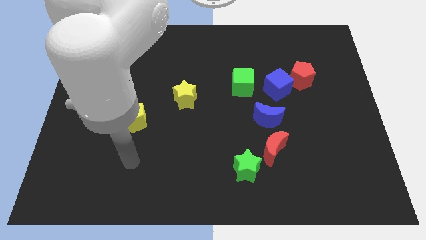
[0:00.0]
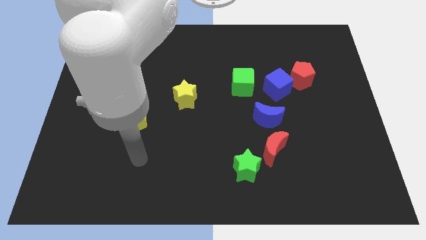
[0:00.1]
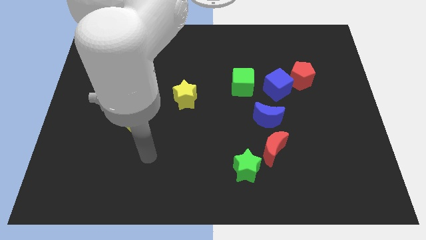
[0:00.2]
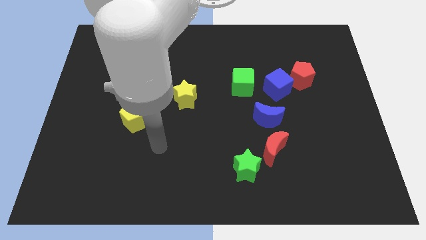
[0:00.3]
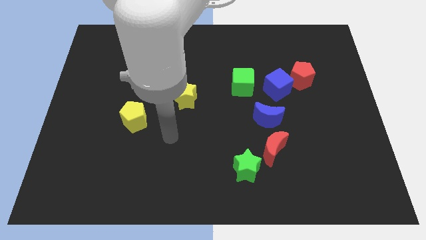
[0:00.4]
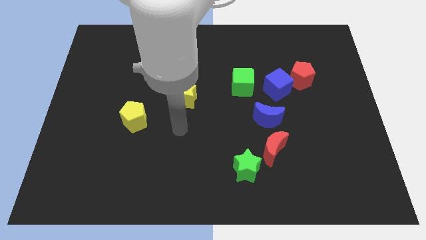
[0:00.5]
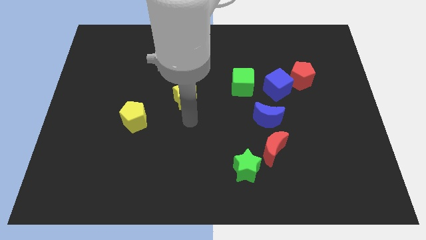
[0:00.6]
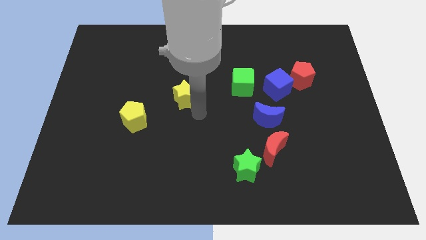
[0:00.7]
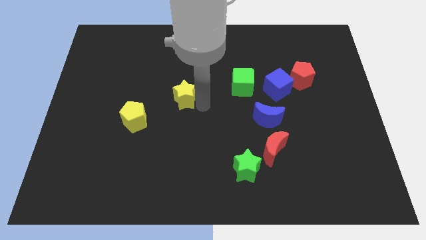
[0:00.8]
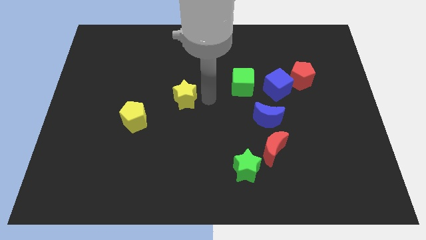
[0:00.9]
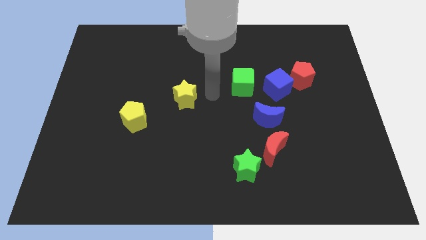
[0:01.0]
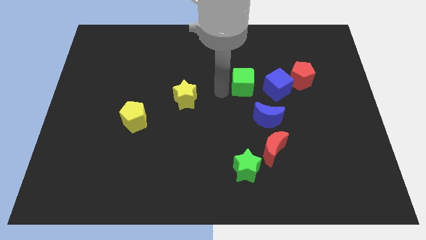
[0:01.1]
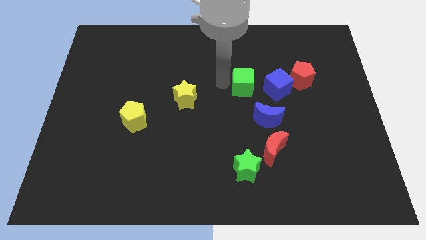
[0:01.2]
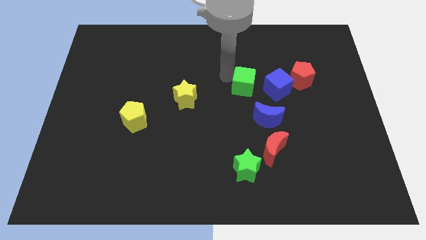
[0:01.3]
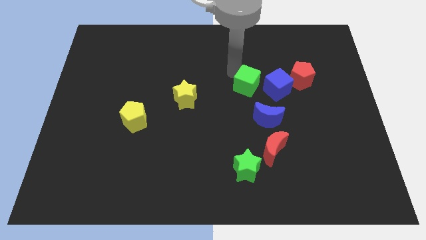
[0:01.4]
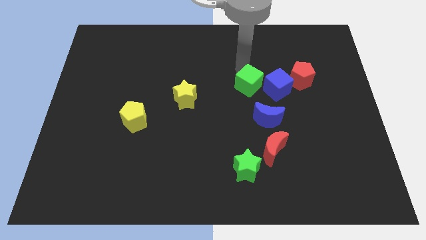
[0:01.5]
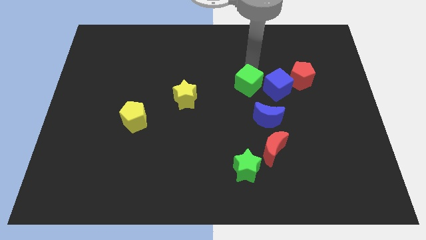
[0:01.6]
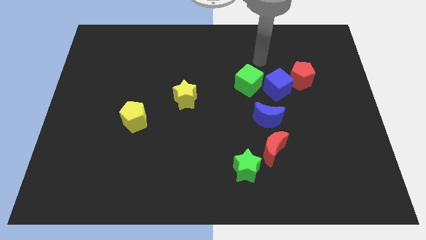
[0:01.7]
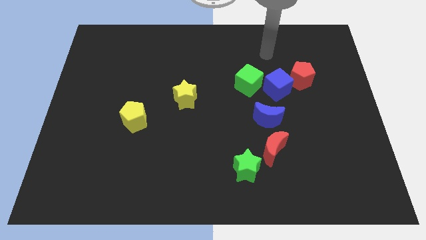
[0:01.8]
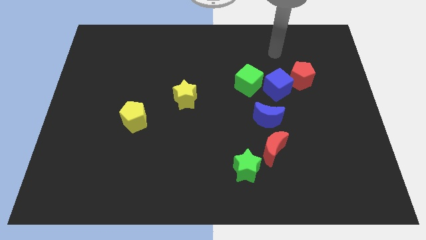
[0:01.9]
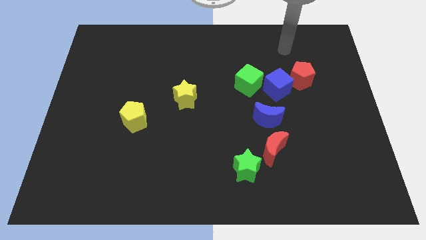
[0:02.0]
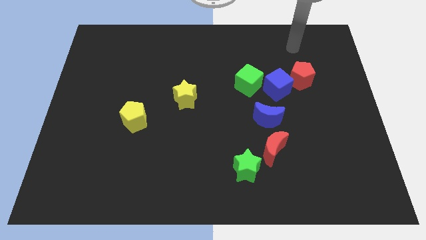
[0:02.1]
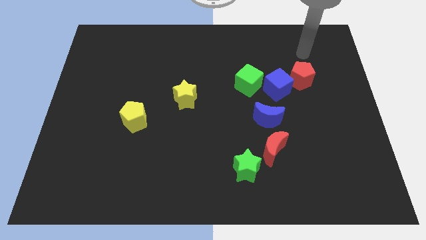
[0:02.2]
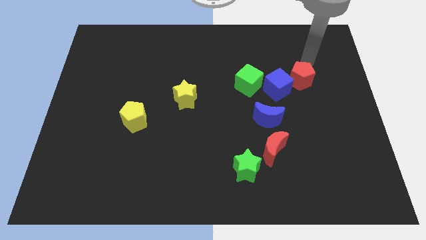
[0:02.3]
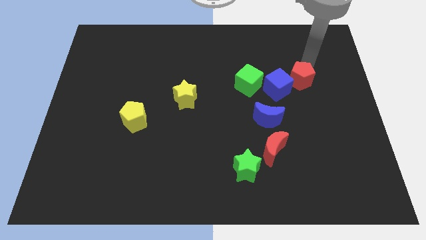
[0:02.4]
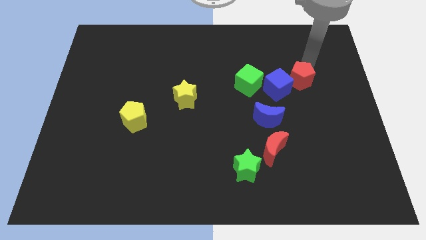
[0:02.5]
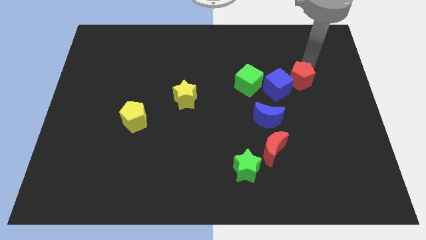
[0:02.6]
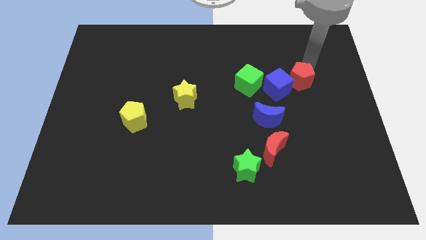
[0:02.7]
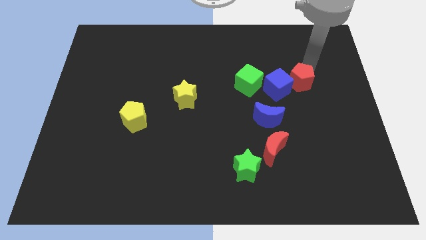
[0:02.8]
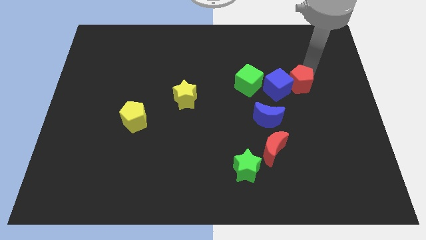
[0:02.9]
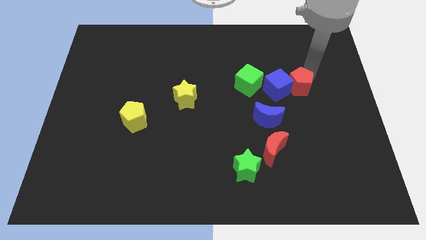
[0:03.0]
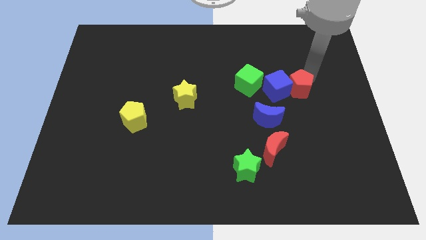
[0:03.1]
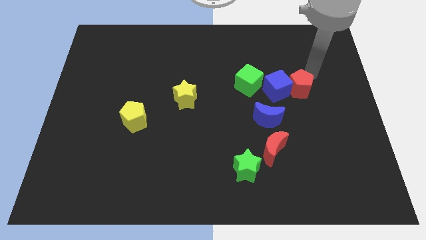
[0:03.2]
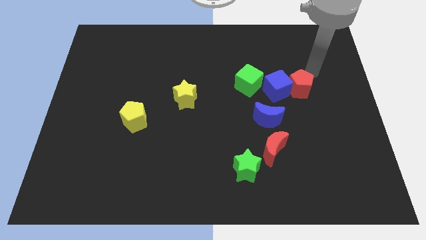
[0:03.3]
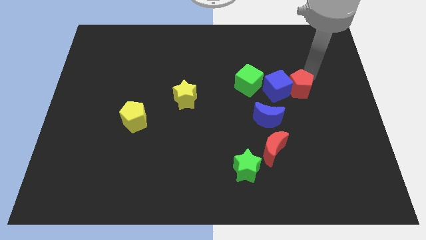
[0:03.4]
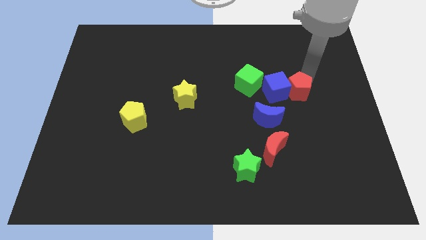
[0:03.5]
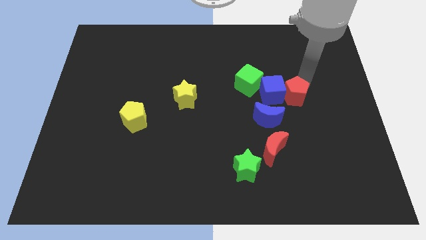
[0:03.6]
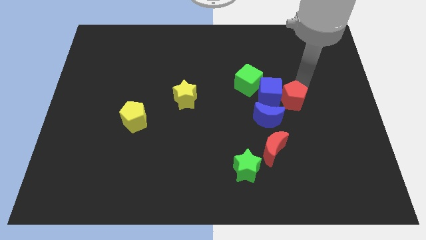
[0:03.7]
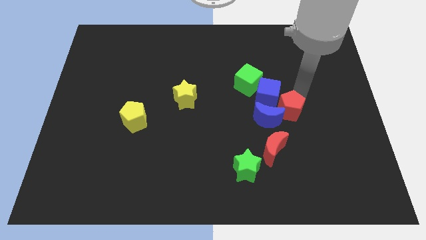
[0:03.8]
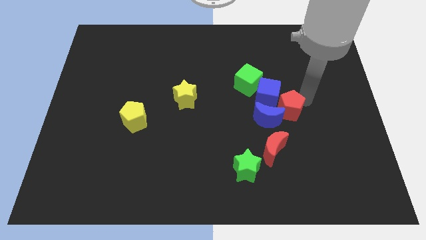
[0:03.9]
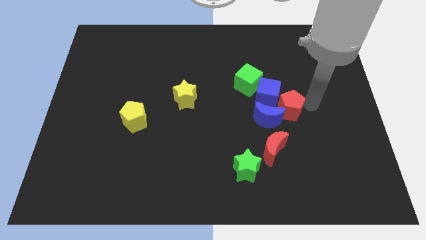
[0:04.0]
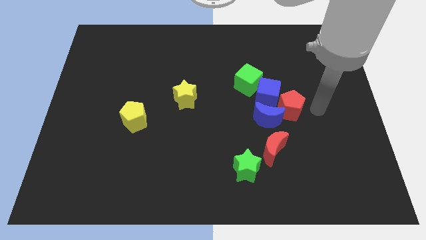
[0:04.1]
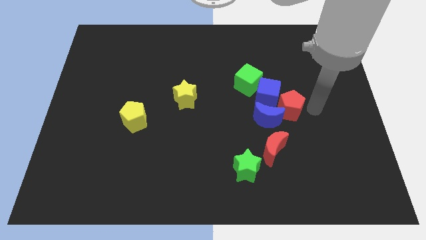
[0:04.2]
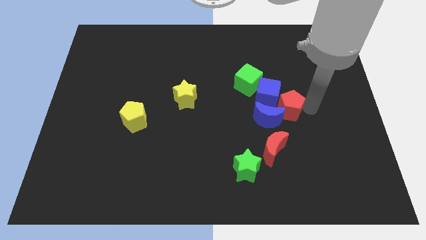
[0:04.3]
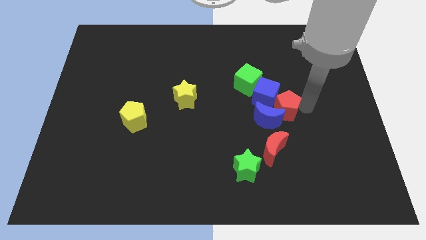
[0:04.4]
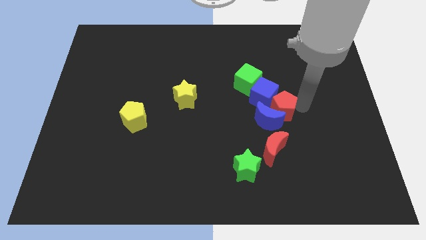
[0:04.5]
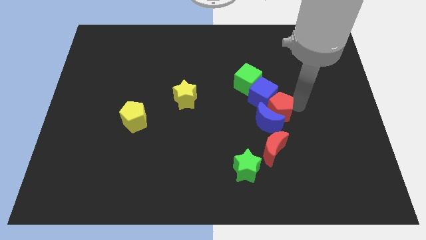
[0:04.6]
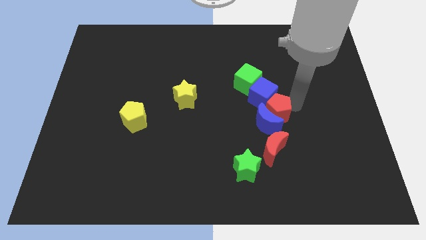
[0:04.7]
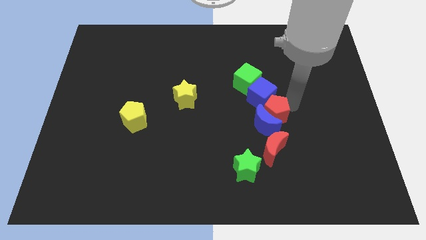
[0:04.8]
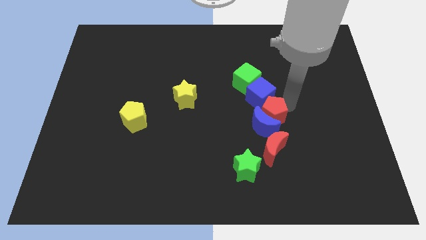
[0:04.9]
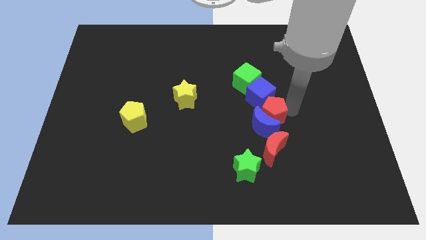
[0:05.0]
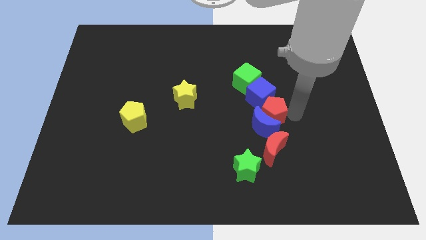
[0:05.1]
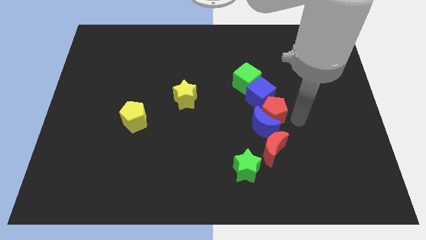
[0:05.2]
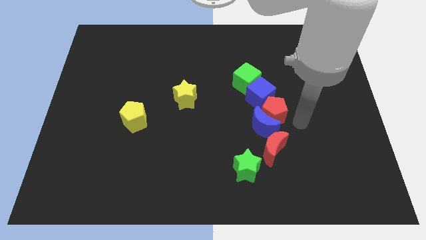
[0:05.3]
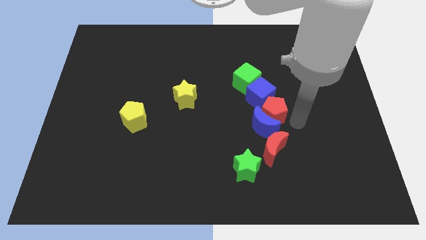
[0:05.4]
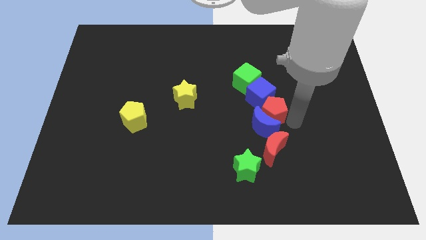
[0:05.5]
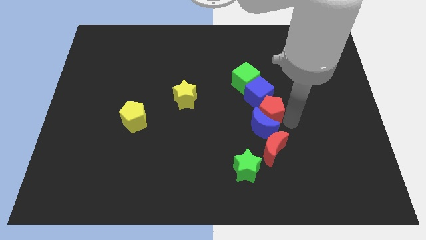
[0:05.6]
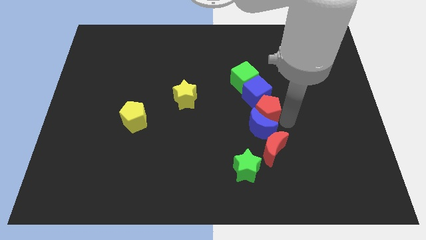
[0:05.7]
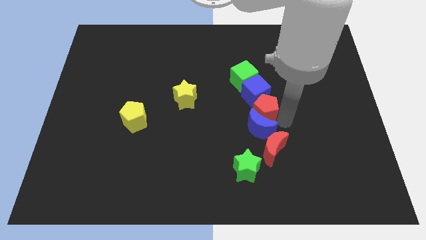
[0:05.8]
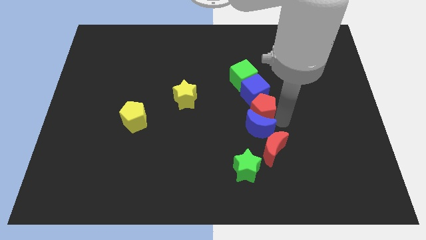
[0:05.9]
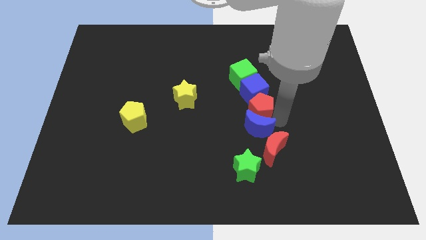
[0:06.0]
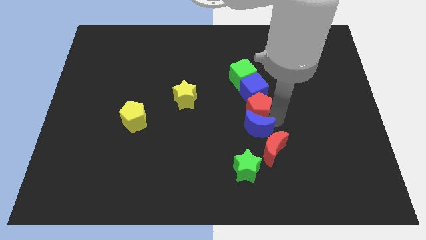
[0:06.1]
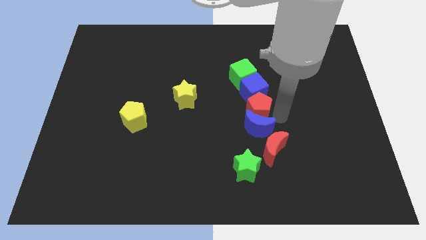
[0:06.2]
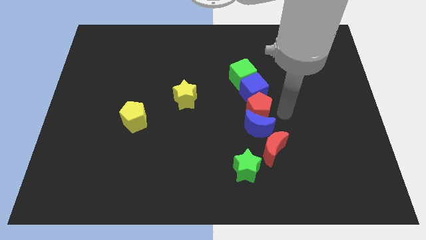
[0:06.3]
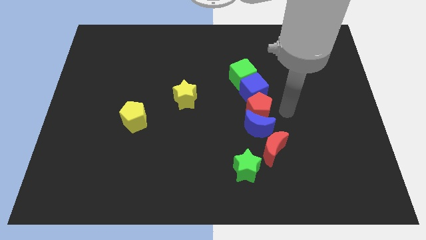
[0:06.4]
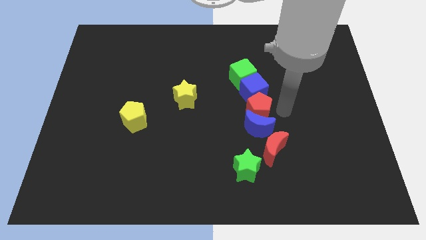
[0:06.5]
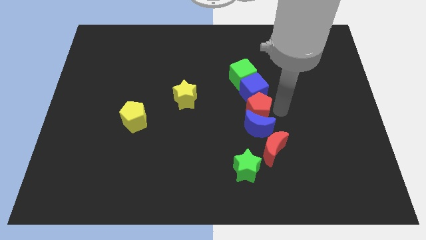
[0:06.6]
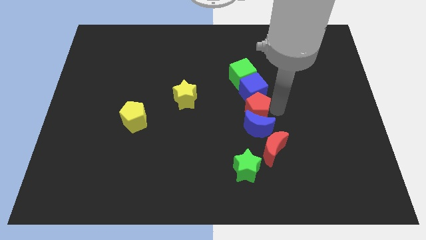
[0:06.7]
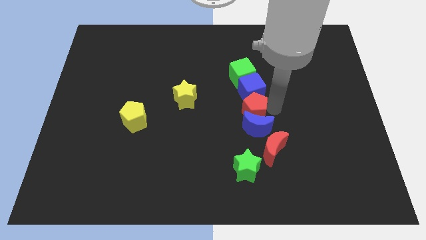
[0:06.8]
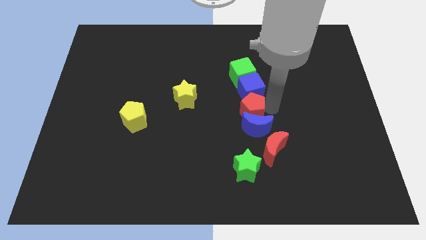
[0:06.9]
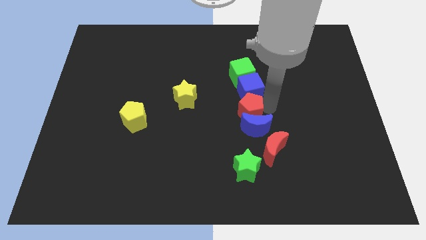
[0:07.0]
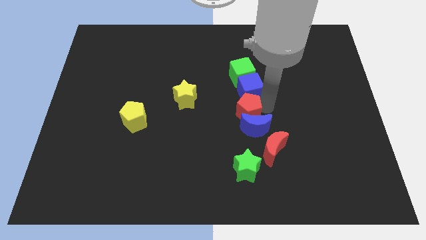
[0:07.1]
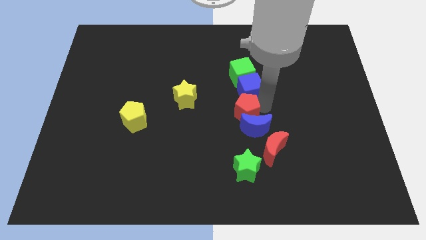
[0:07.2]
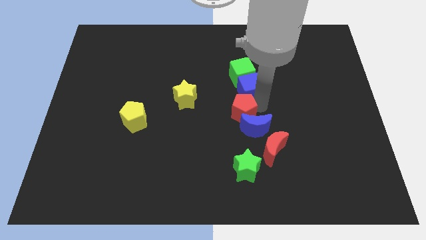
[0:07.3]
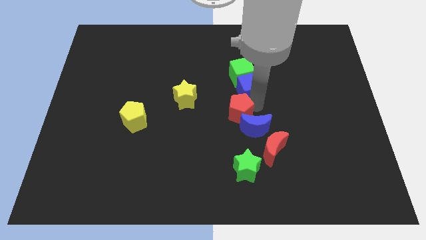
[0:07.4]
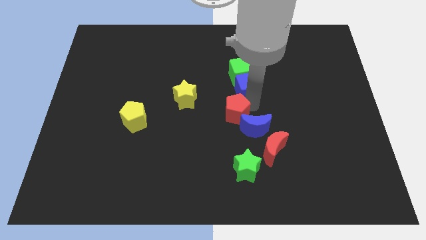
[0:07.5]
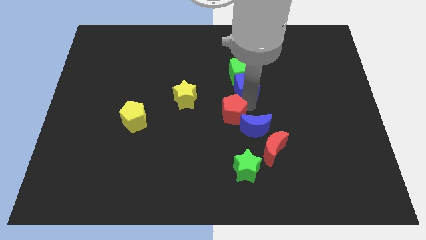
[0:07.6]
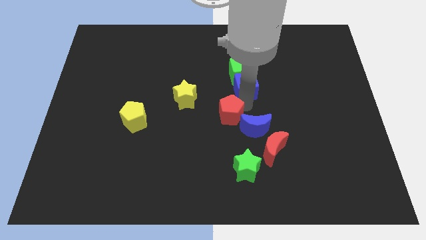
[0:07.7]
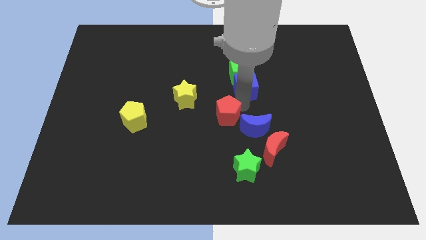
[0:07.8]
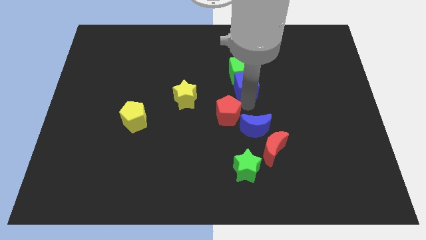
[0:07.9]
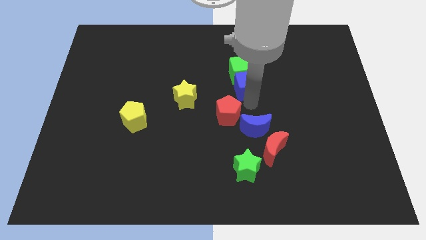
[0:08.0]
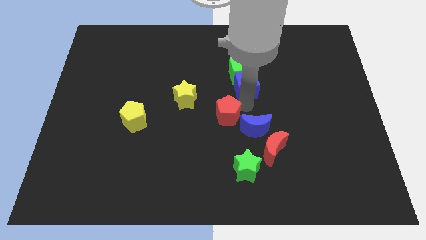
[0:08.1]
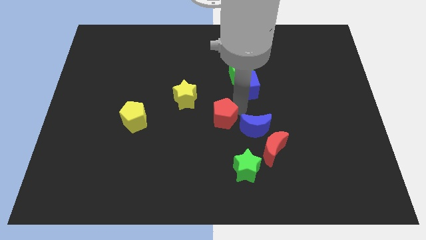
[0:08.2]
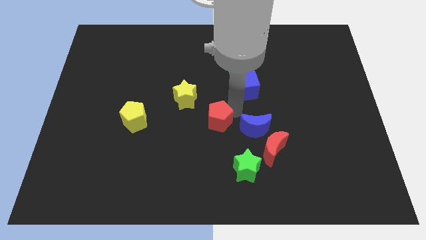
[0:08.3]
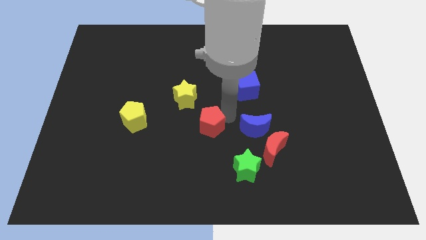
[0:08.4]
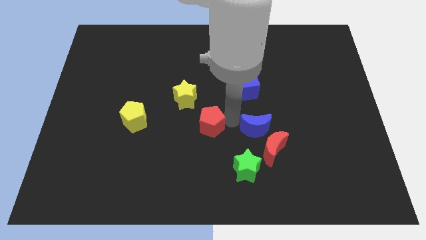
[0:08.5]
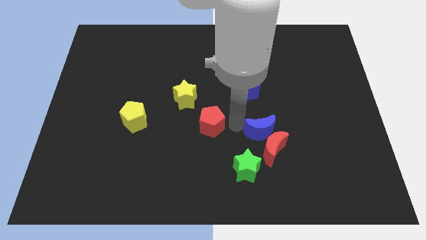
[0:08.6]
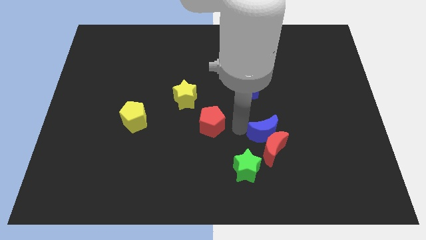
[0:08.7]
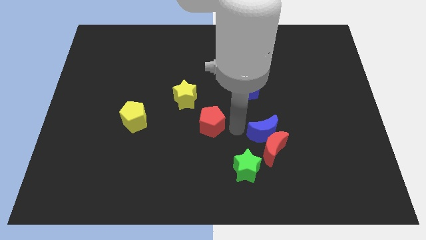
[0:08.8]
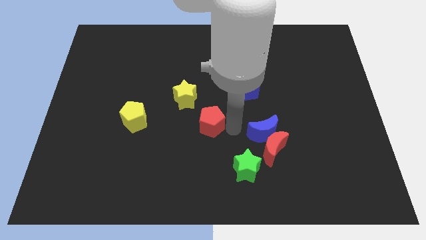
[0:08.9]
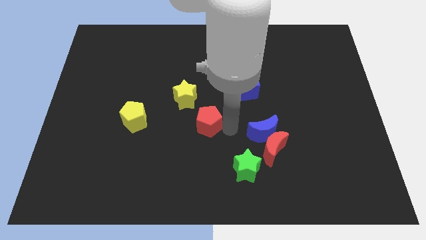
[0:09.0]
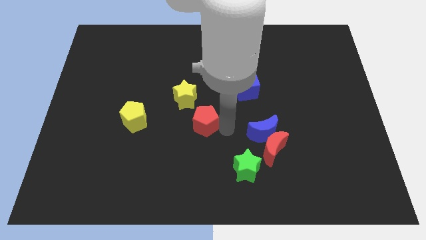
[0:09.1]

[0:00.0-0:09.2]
put the red pentagon just right of the yellow pentagon
